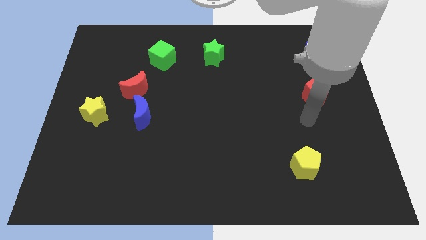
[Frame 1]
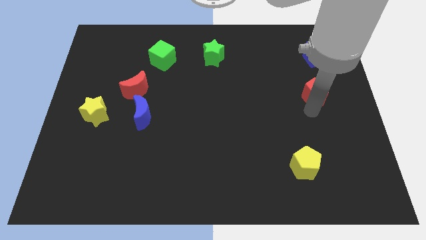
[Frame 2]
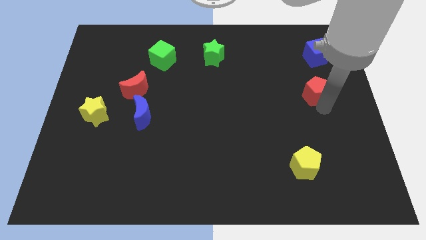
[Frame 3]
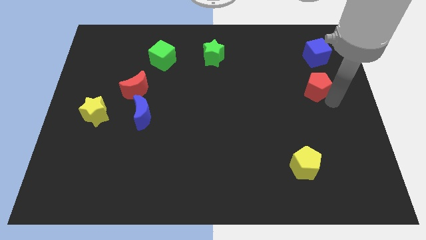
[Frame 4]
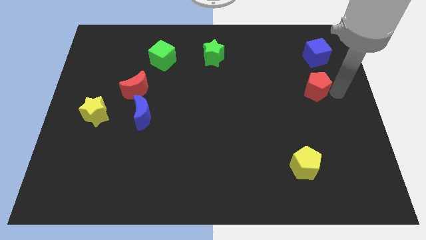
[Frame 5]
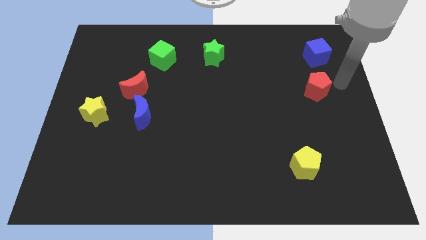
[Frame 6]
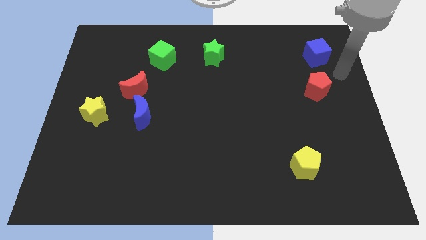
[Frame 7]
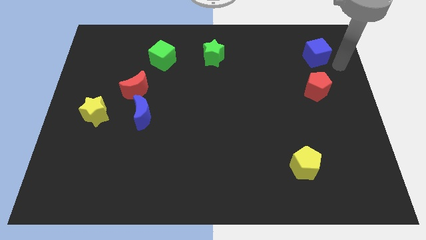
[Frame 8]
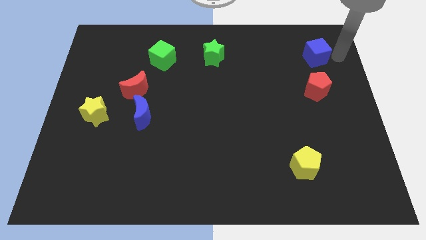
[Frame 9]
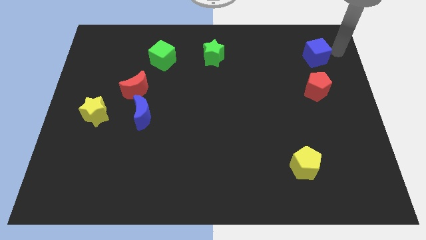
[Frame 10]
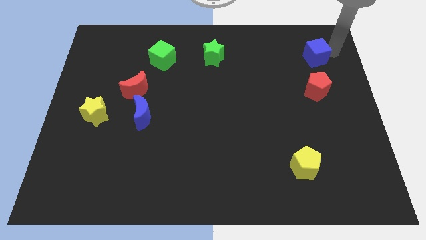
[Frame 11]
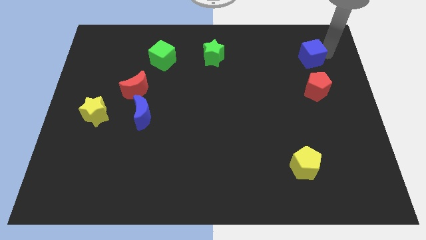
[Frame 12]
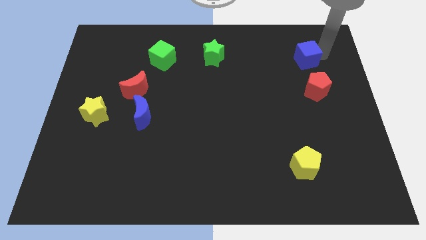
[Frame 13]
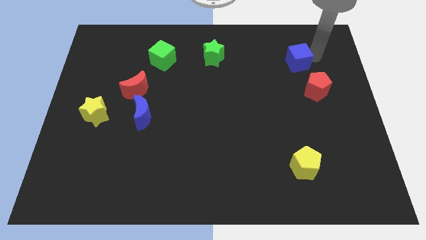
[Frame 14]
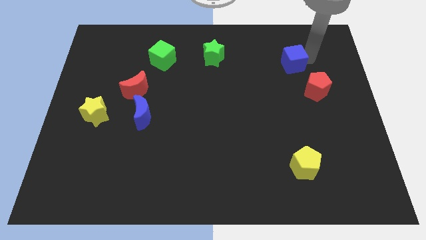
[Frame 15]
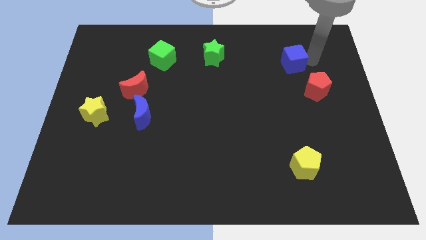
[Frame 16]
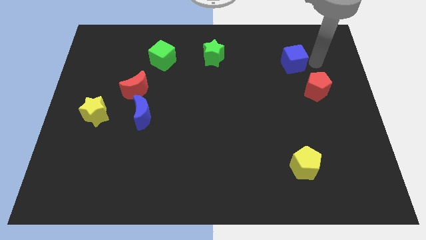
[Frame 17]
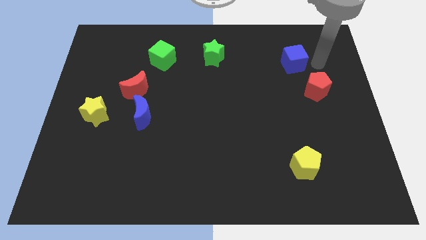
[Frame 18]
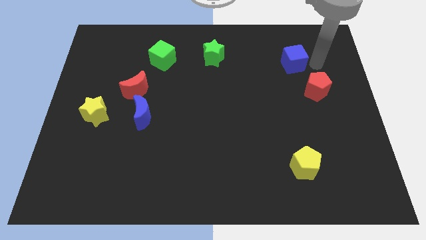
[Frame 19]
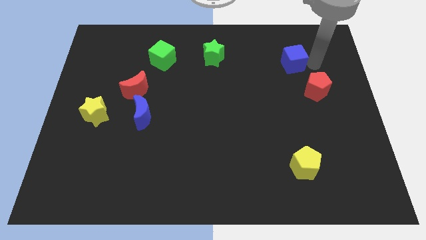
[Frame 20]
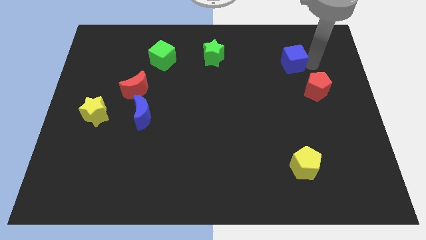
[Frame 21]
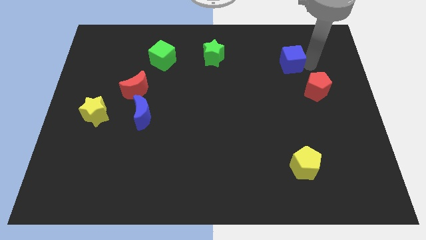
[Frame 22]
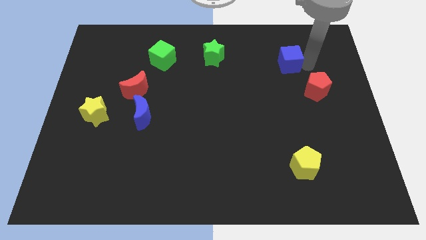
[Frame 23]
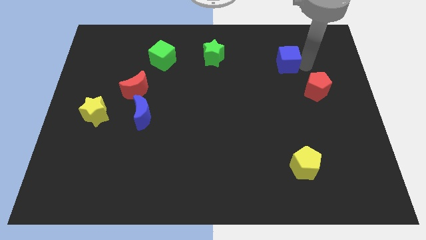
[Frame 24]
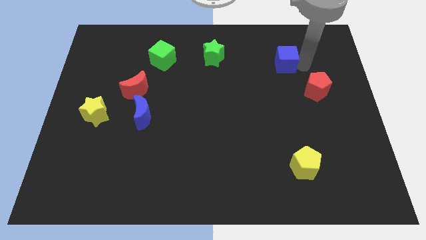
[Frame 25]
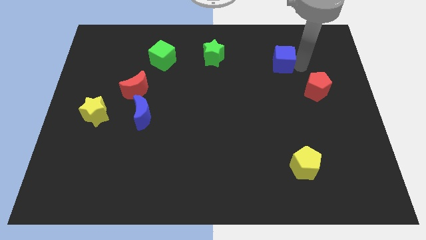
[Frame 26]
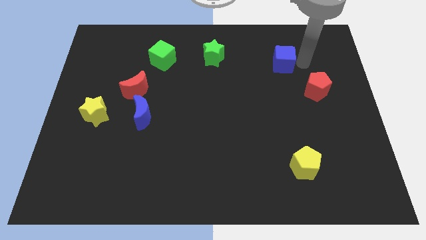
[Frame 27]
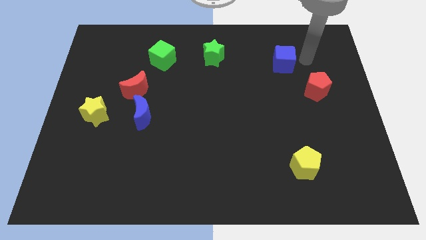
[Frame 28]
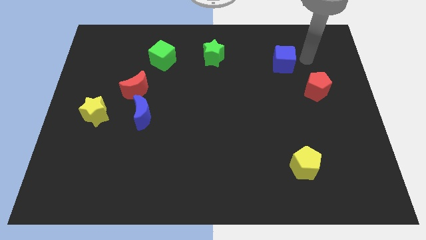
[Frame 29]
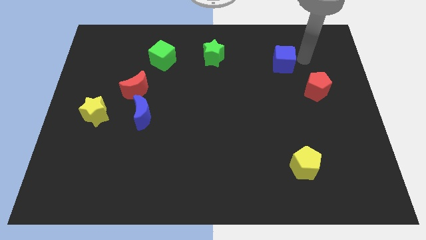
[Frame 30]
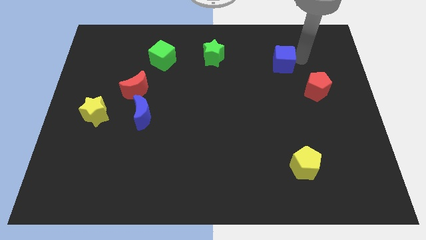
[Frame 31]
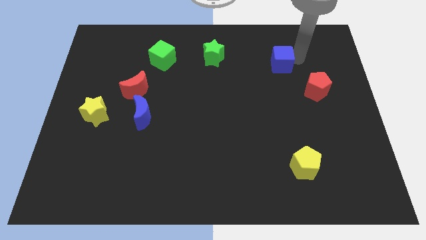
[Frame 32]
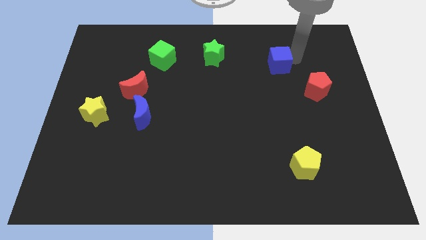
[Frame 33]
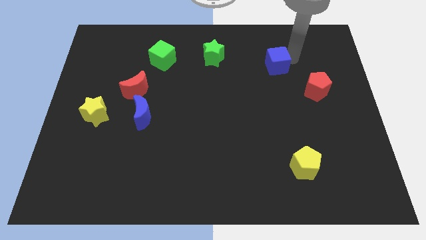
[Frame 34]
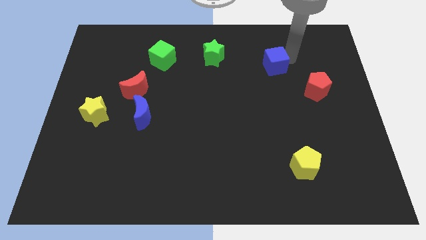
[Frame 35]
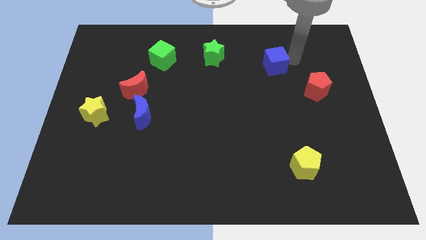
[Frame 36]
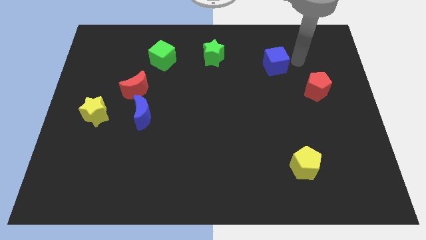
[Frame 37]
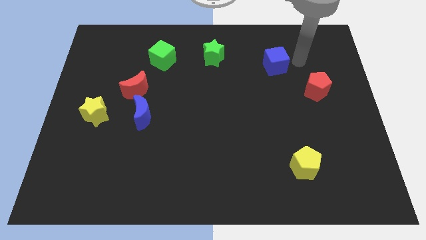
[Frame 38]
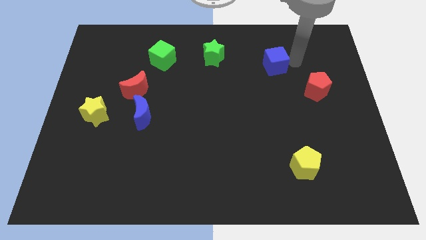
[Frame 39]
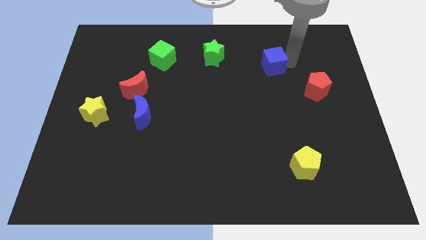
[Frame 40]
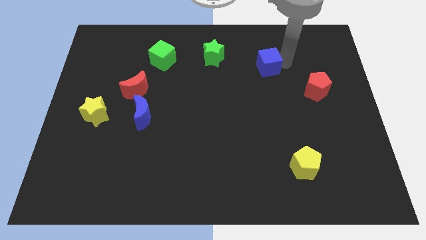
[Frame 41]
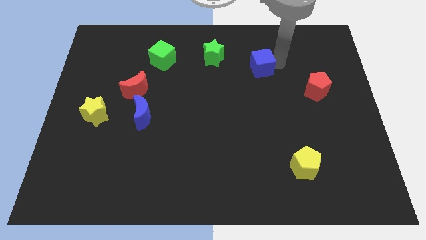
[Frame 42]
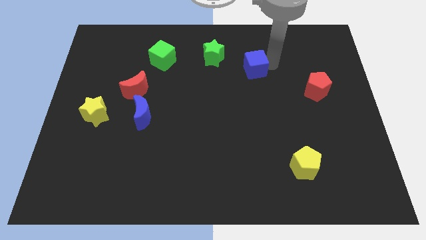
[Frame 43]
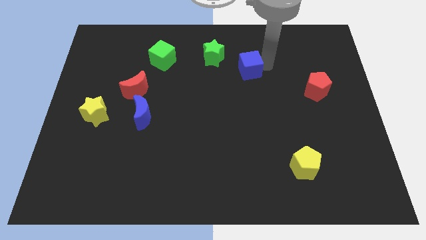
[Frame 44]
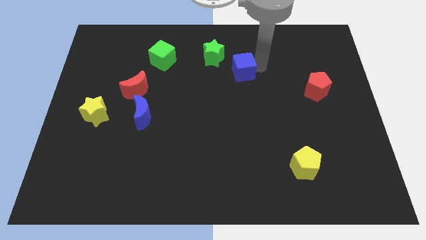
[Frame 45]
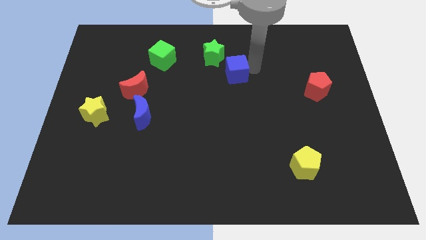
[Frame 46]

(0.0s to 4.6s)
move the blue cube left

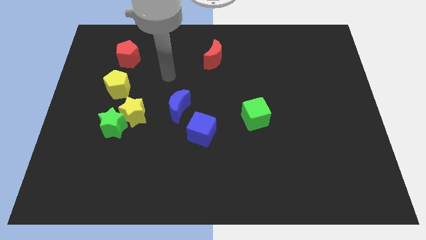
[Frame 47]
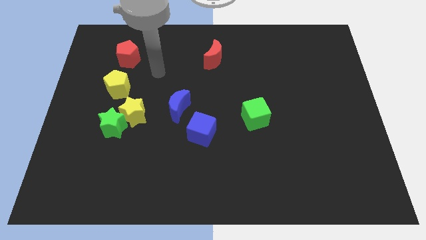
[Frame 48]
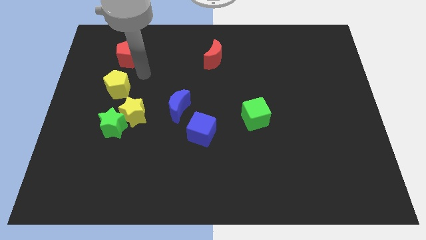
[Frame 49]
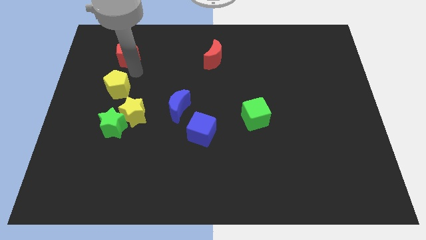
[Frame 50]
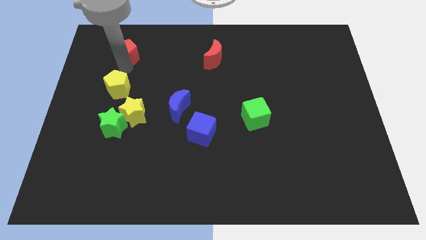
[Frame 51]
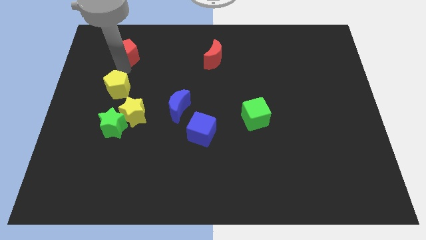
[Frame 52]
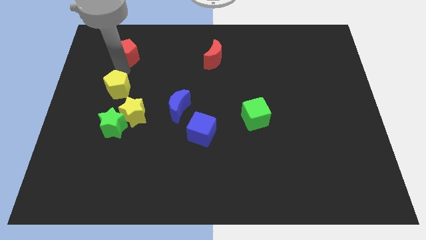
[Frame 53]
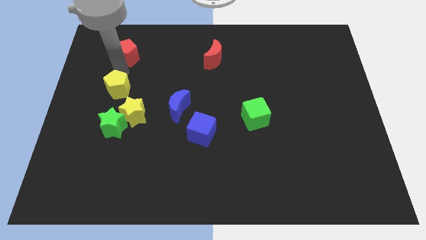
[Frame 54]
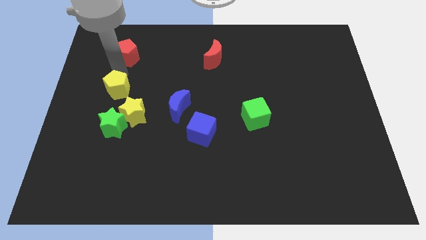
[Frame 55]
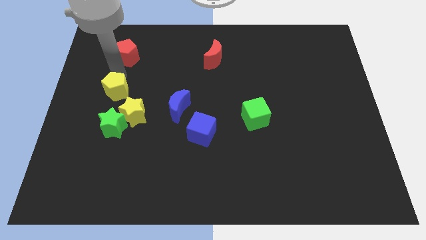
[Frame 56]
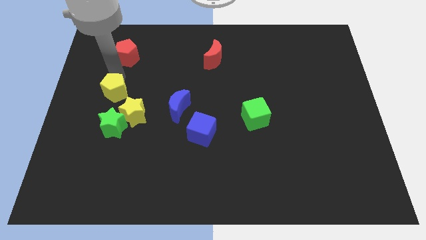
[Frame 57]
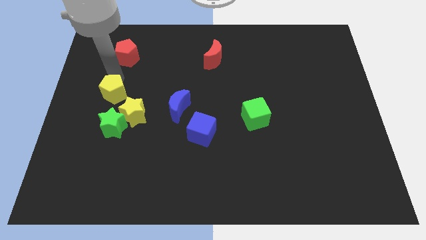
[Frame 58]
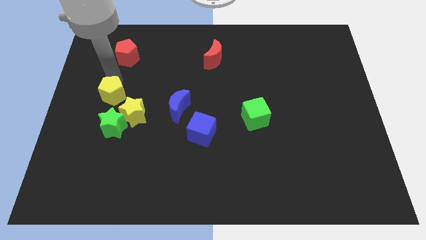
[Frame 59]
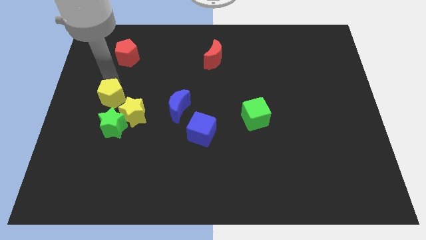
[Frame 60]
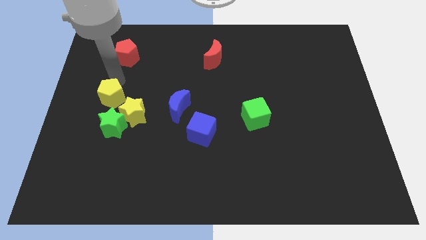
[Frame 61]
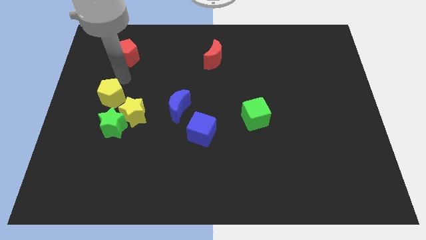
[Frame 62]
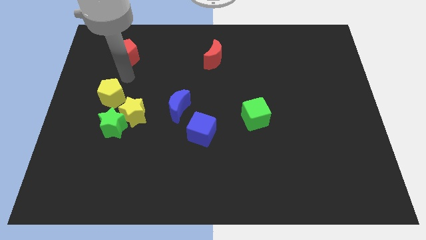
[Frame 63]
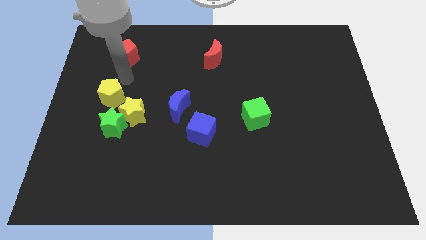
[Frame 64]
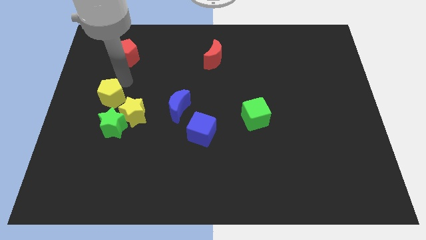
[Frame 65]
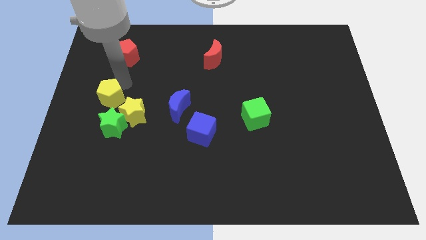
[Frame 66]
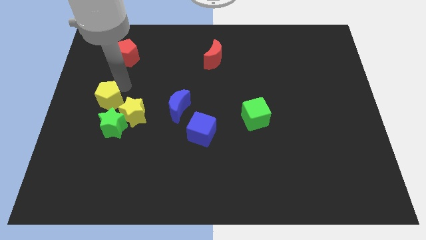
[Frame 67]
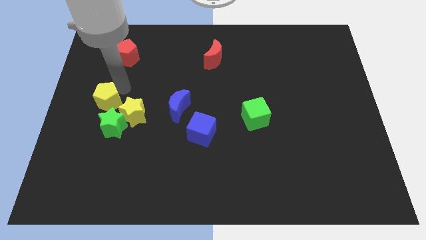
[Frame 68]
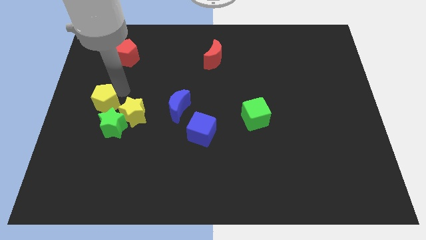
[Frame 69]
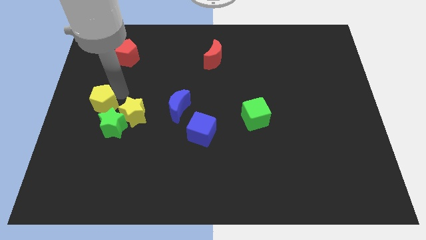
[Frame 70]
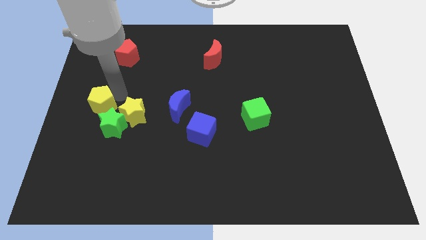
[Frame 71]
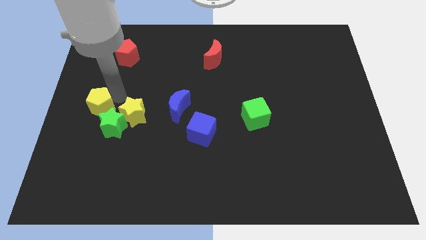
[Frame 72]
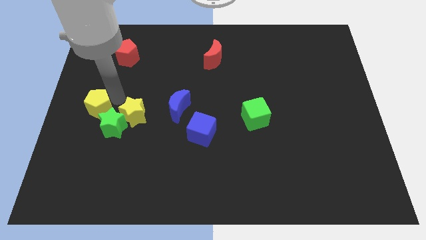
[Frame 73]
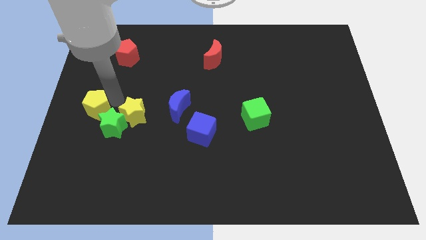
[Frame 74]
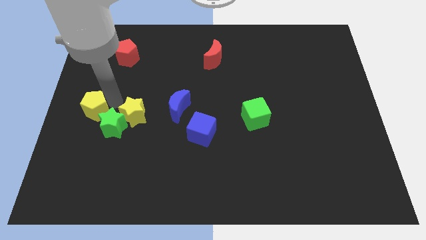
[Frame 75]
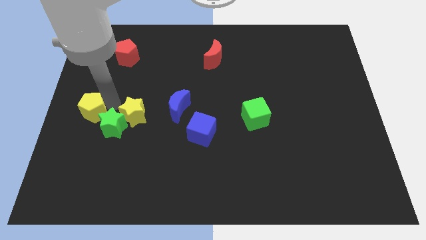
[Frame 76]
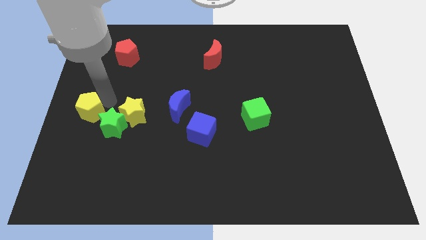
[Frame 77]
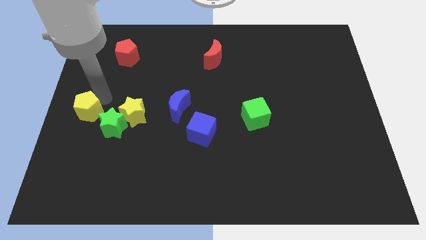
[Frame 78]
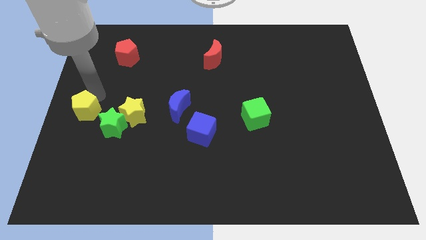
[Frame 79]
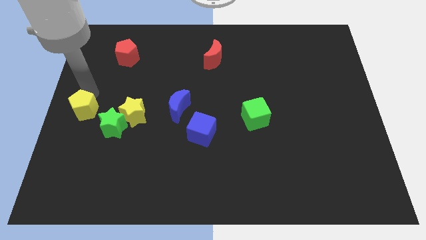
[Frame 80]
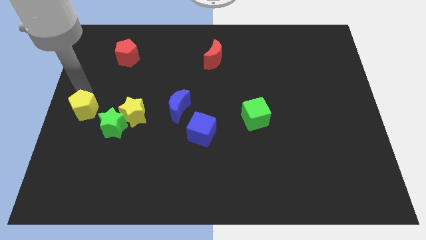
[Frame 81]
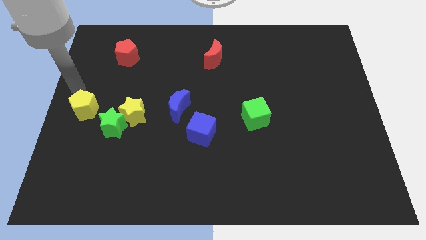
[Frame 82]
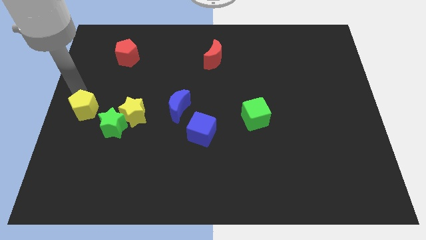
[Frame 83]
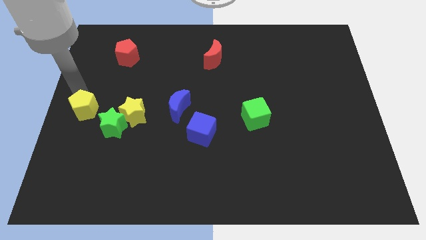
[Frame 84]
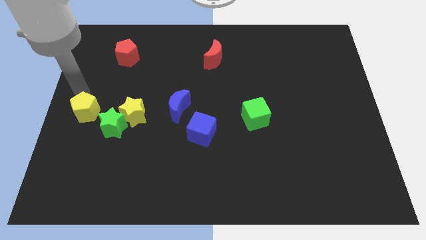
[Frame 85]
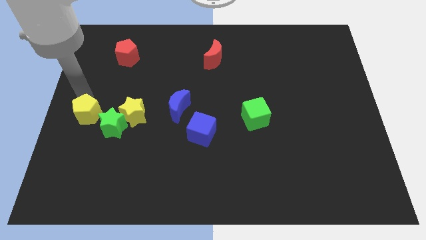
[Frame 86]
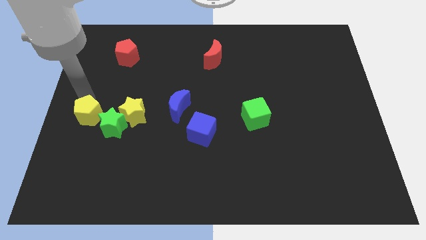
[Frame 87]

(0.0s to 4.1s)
slightly move the yellow pentagon downwards
